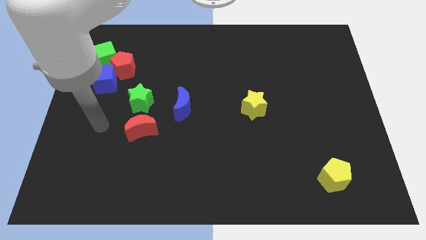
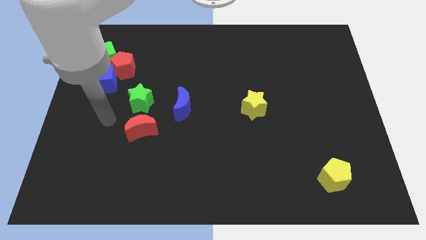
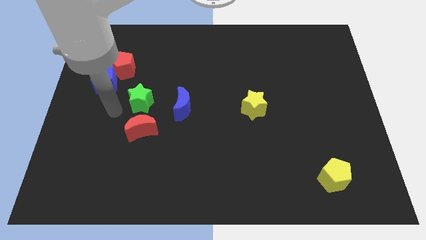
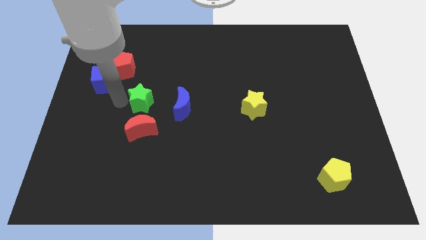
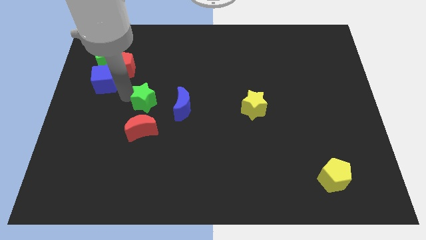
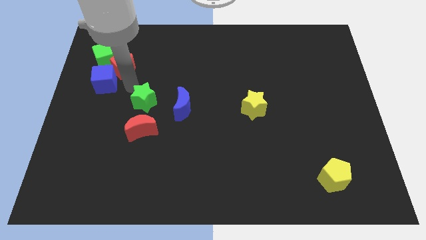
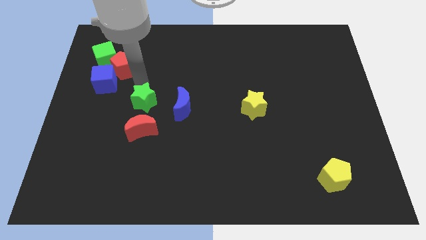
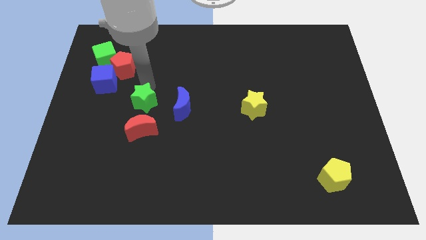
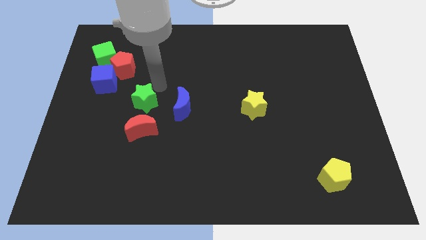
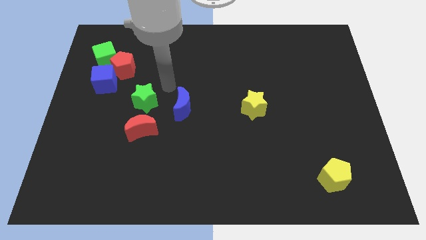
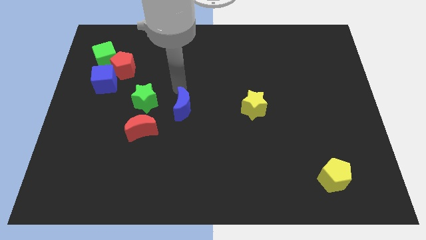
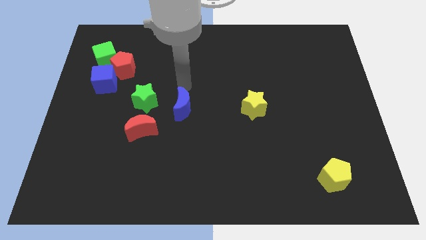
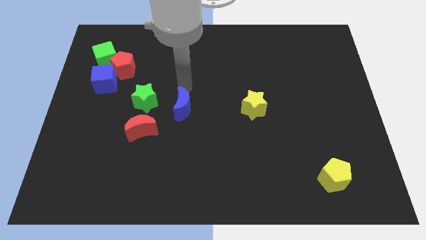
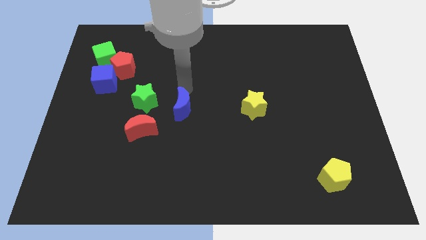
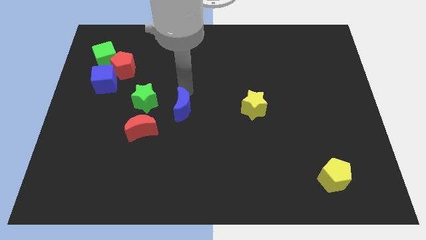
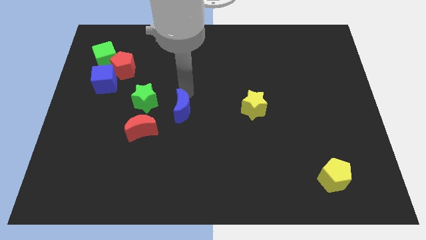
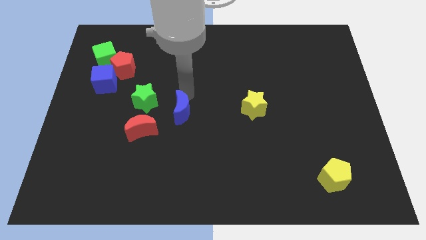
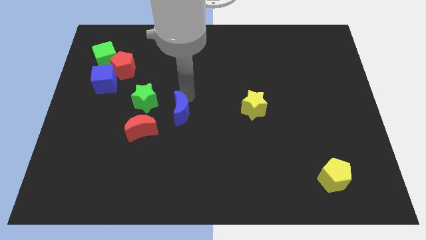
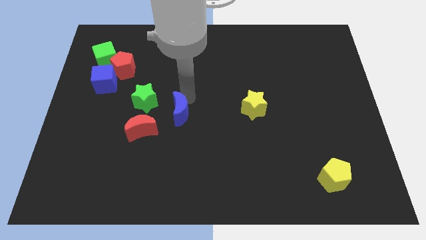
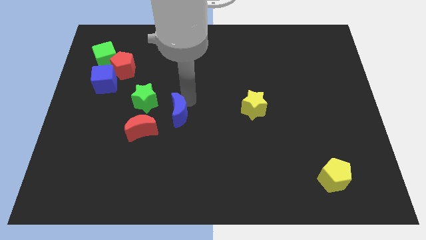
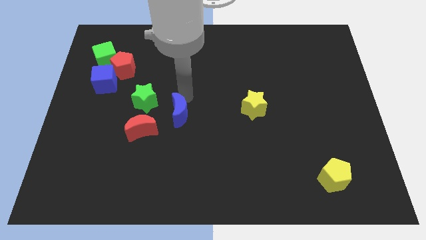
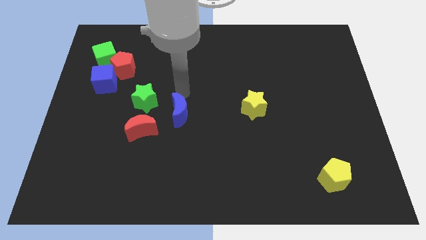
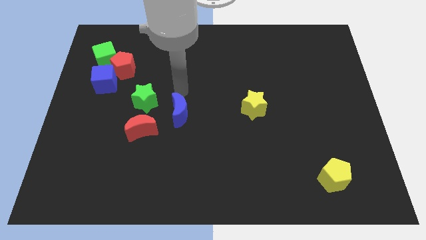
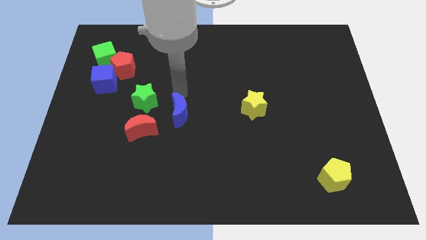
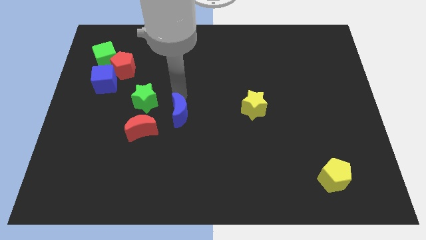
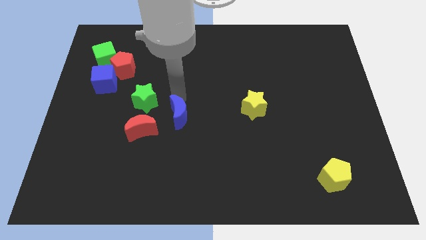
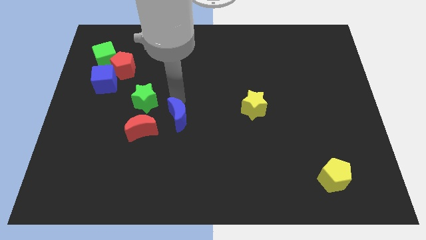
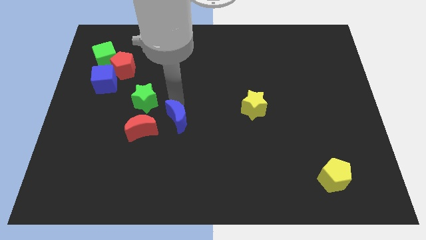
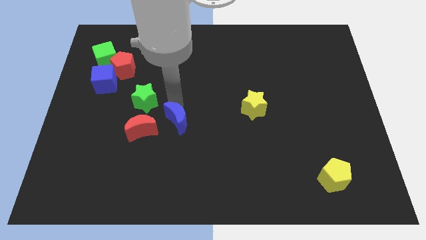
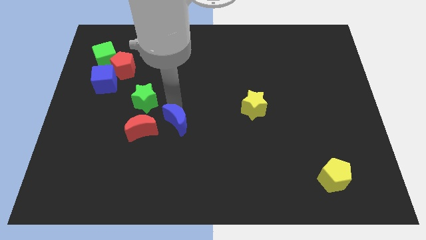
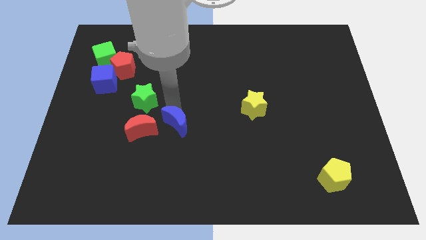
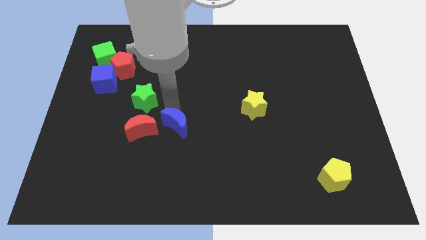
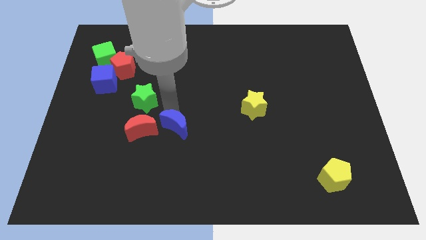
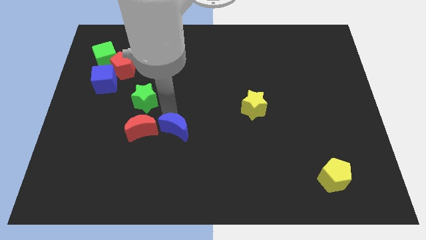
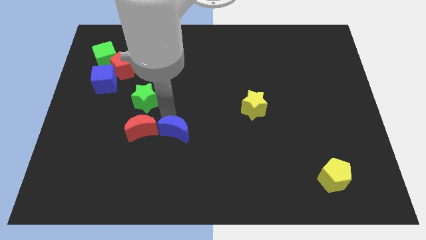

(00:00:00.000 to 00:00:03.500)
move the blue moon downwards a little bit

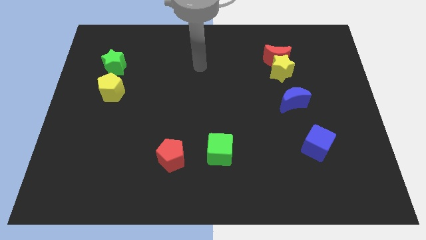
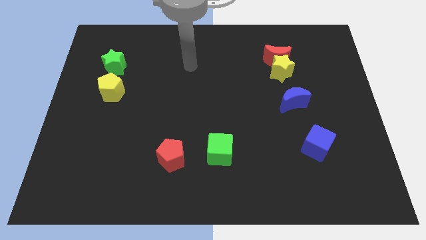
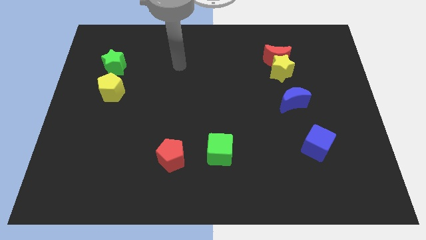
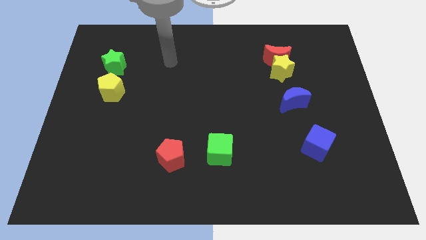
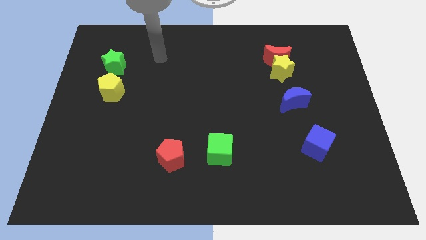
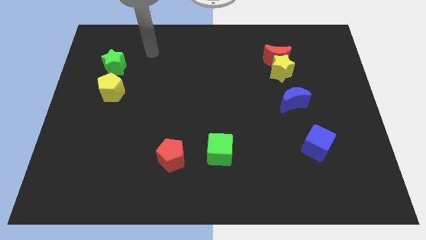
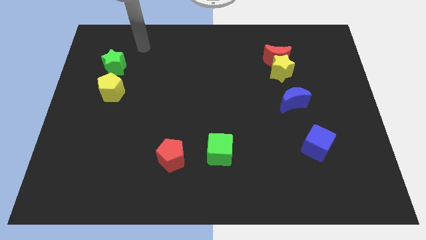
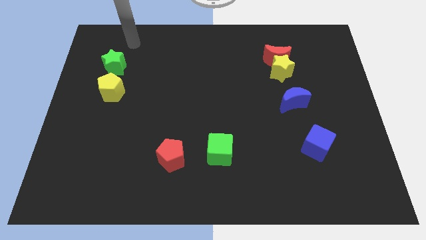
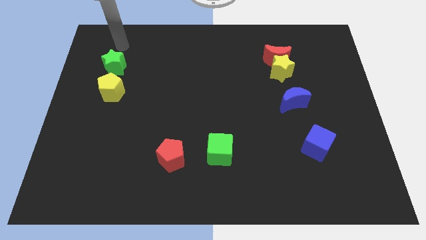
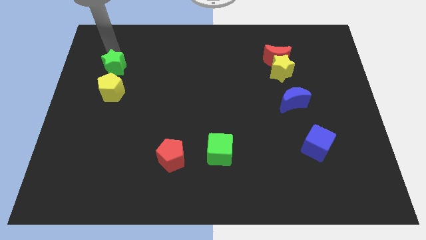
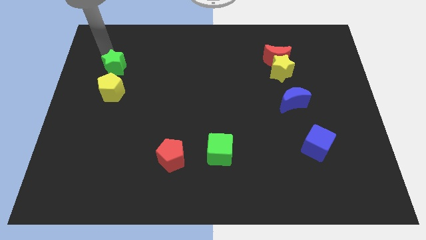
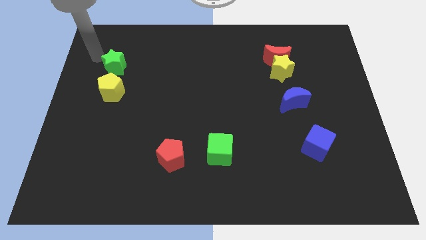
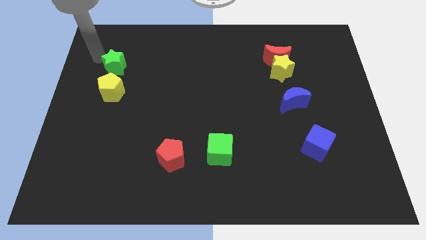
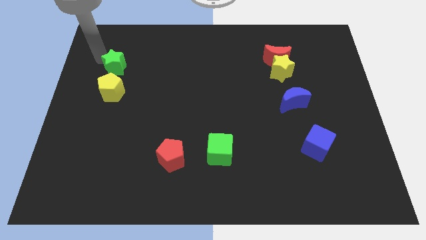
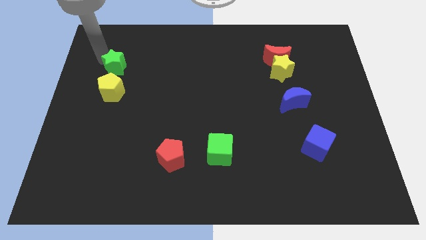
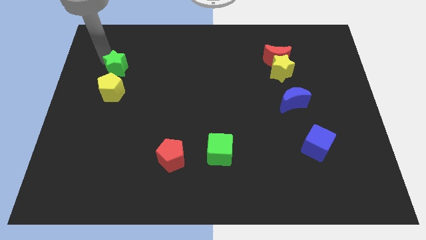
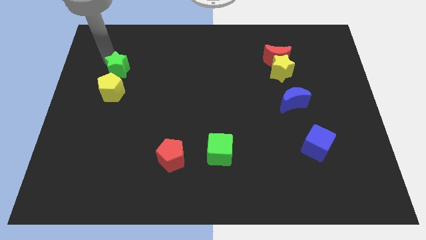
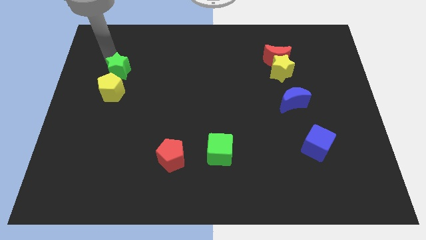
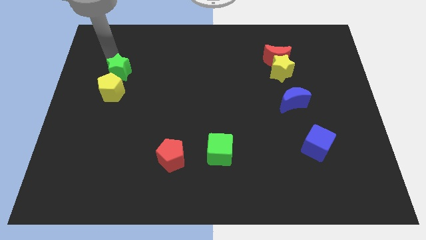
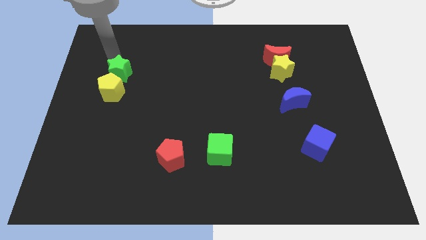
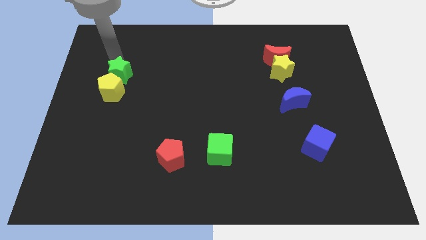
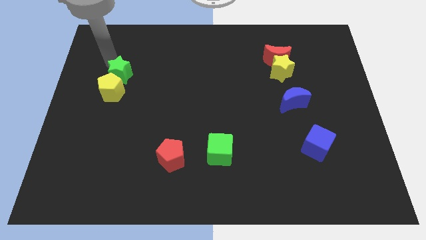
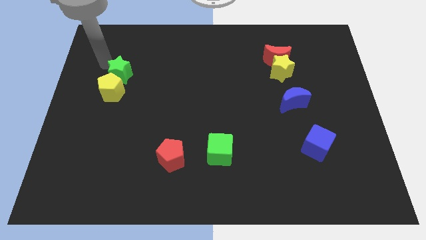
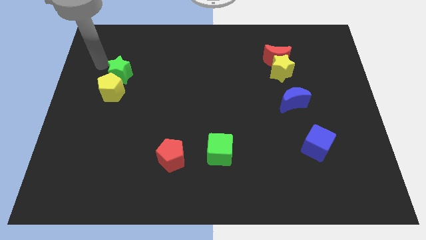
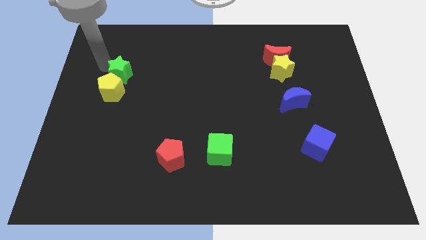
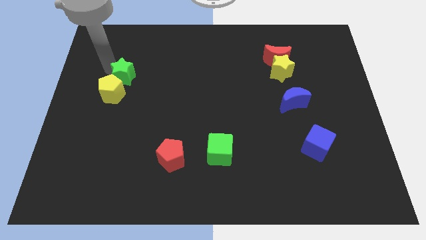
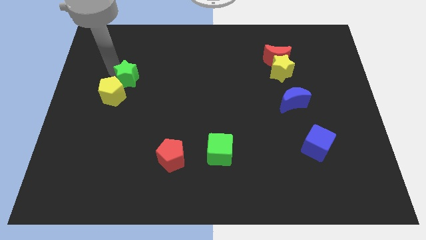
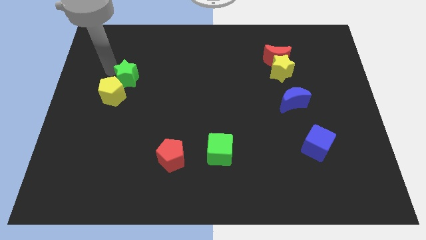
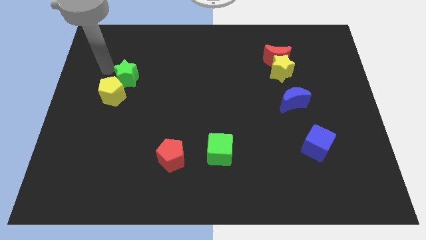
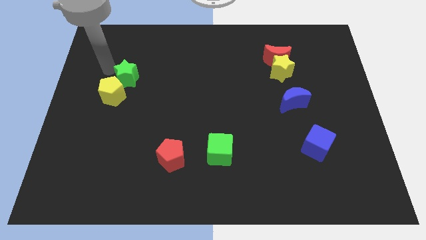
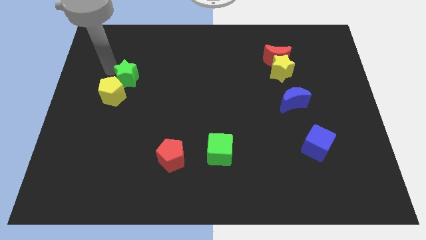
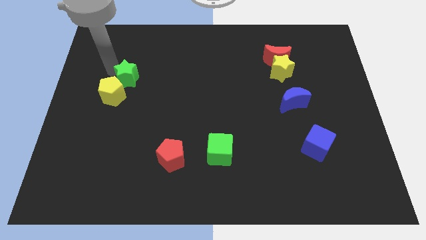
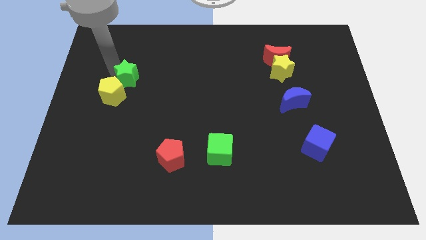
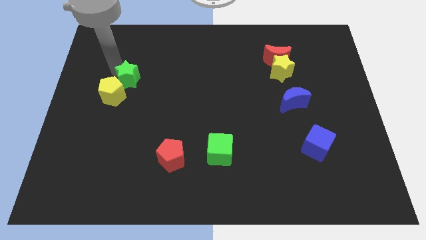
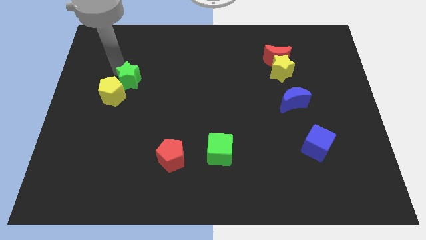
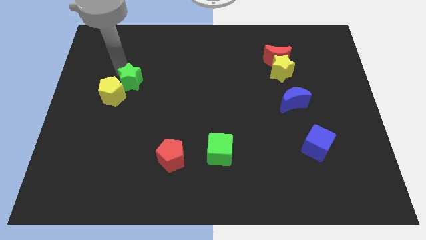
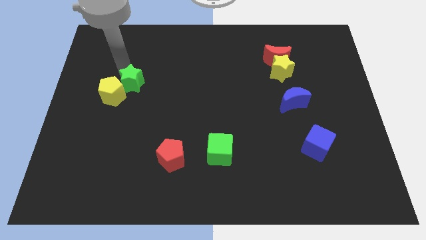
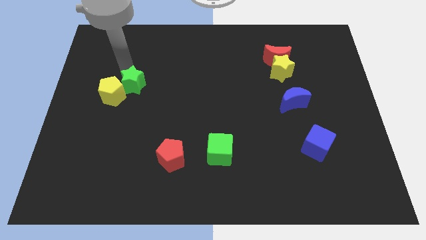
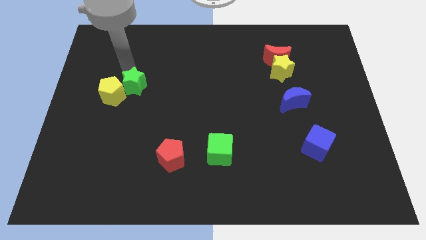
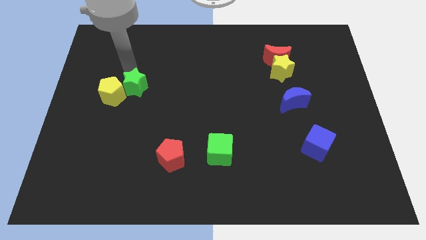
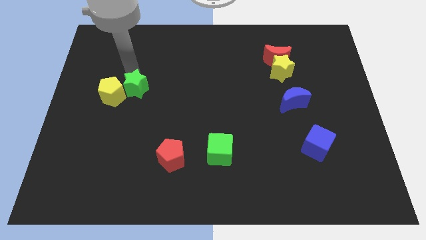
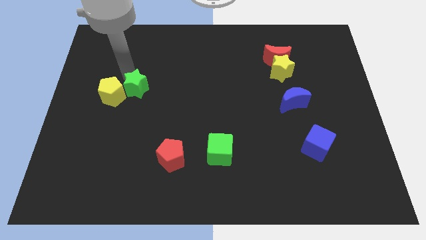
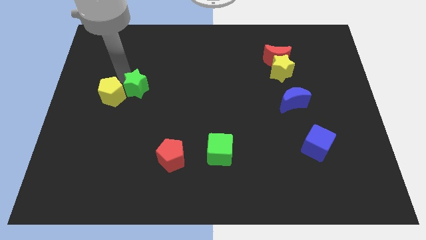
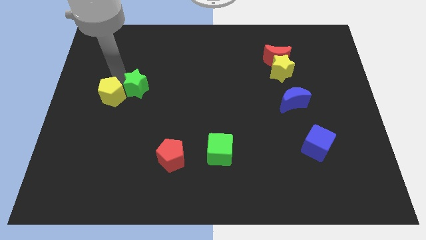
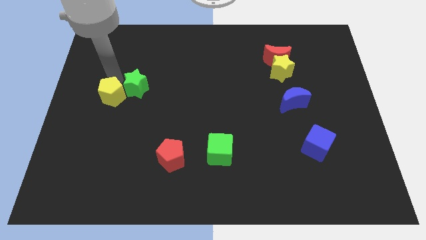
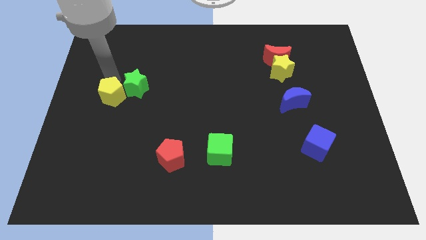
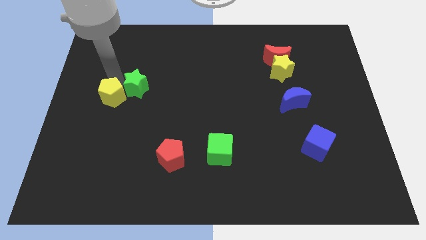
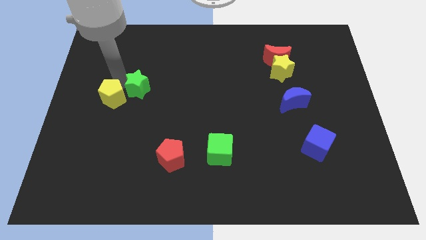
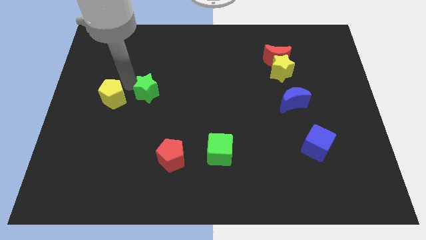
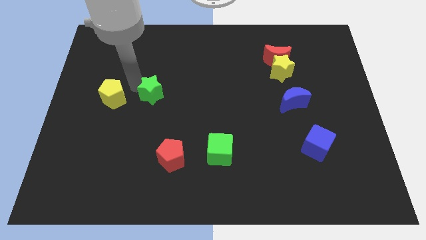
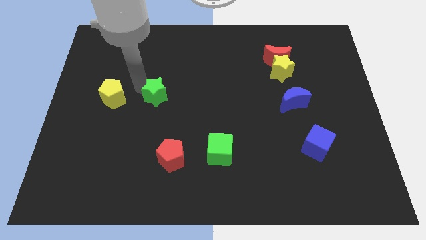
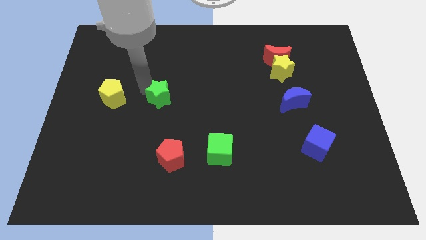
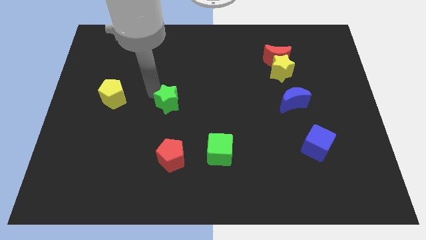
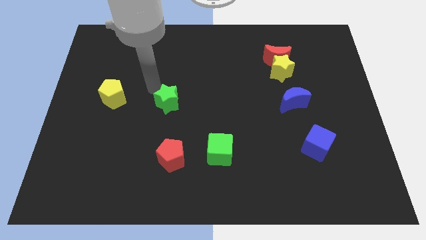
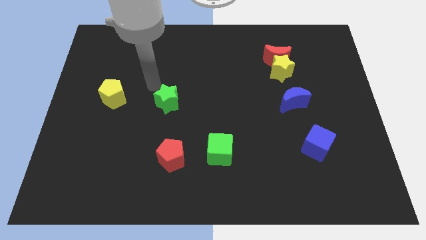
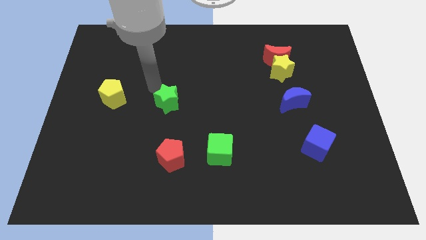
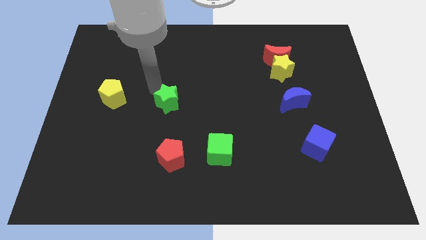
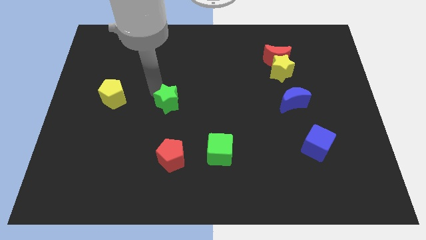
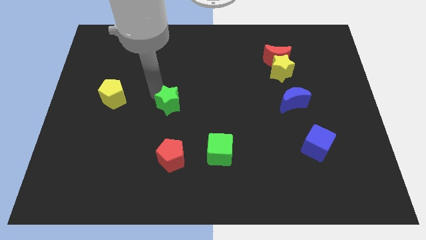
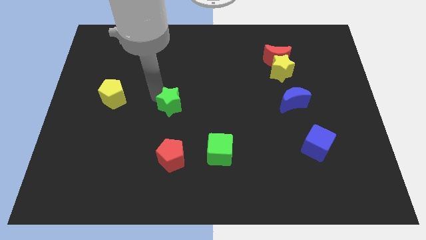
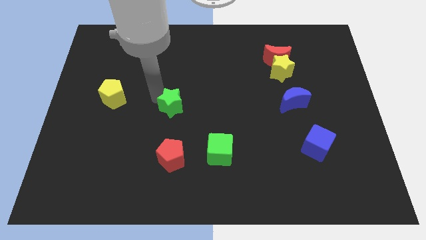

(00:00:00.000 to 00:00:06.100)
slide the green star downwards and to the right
